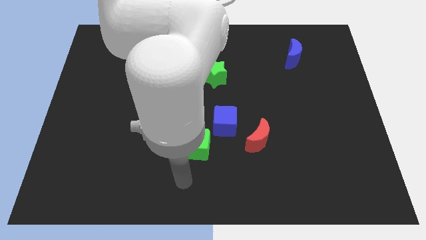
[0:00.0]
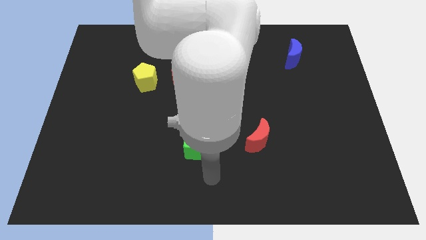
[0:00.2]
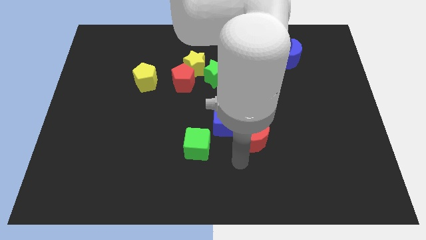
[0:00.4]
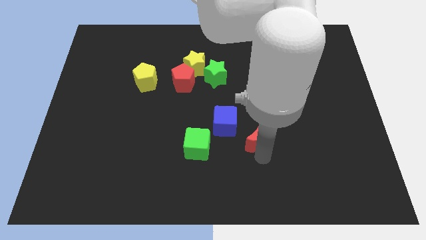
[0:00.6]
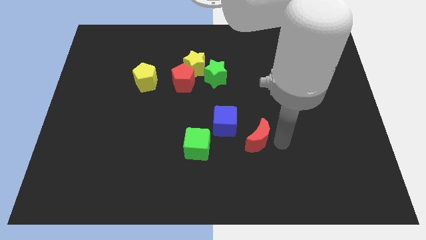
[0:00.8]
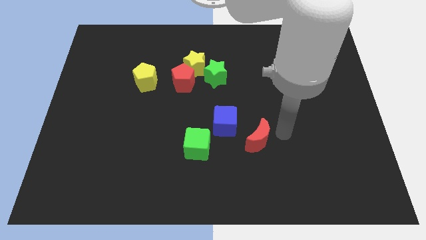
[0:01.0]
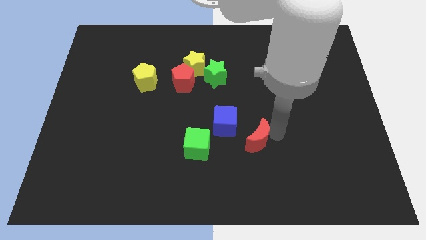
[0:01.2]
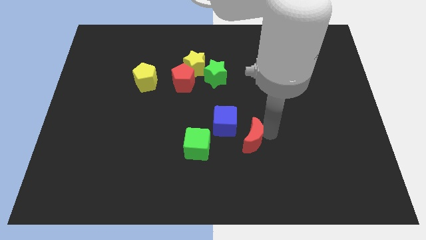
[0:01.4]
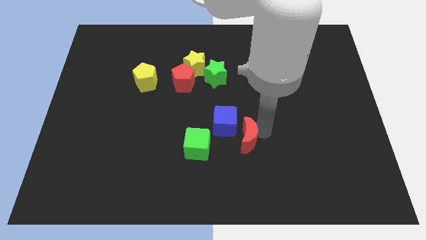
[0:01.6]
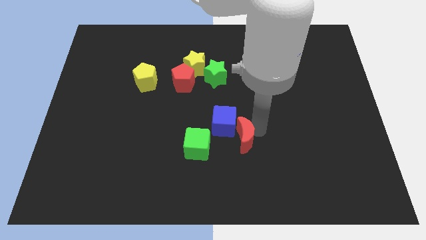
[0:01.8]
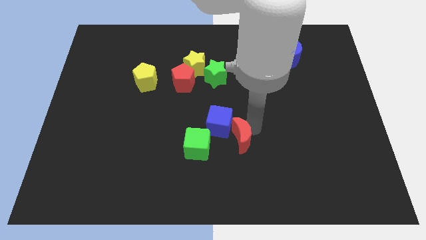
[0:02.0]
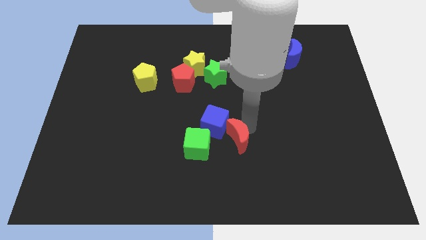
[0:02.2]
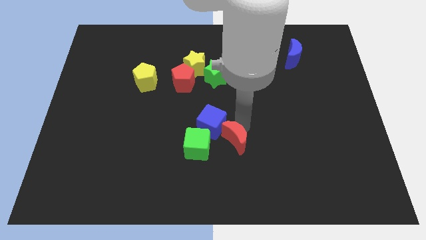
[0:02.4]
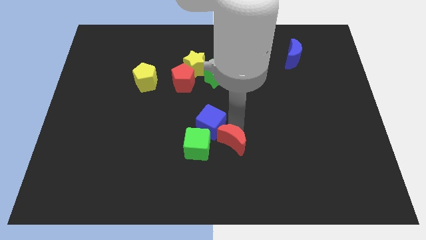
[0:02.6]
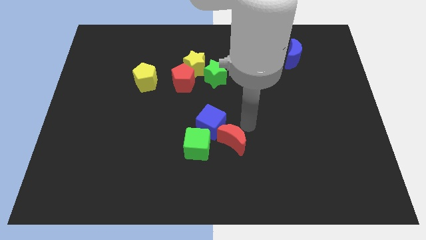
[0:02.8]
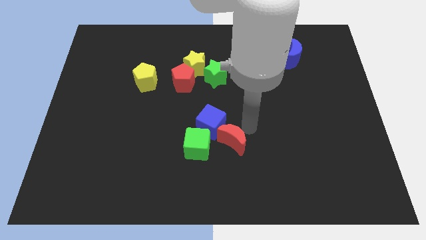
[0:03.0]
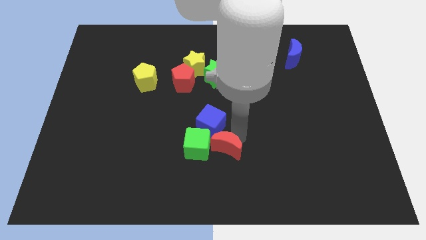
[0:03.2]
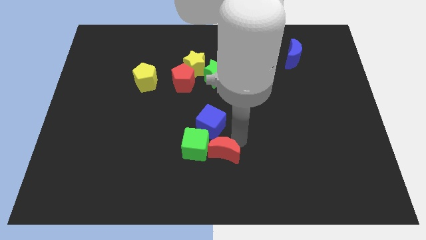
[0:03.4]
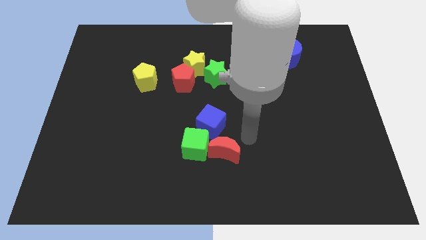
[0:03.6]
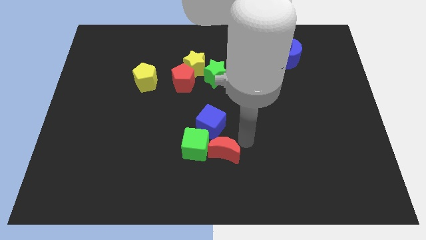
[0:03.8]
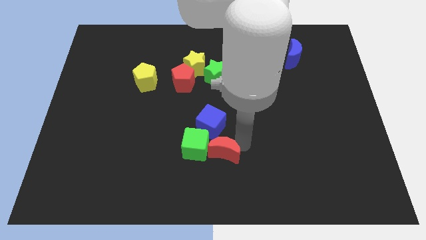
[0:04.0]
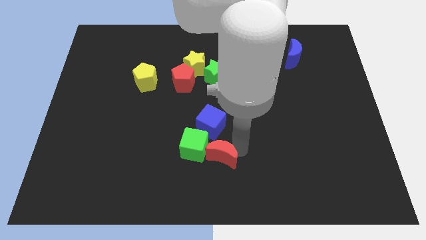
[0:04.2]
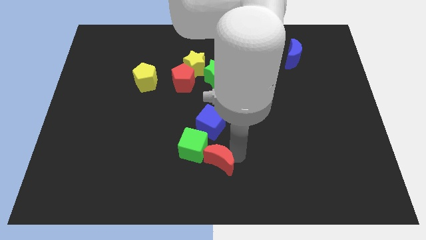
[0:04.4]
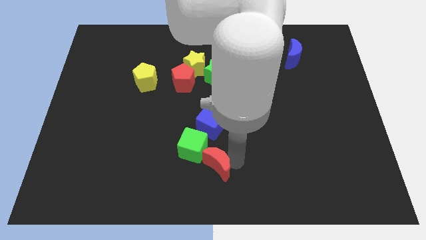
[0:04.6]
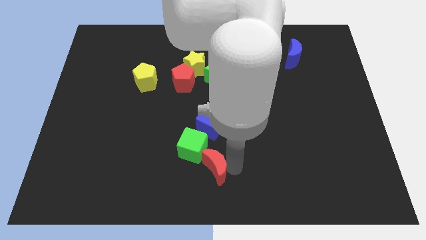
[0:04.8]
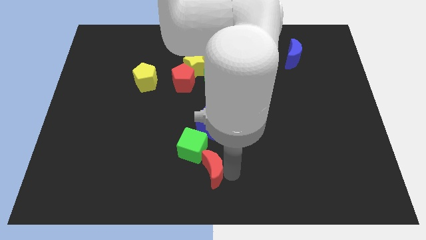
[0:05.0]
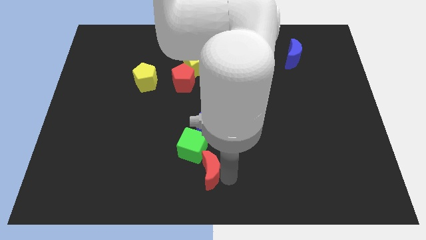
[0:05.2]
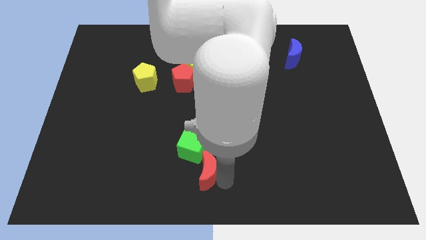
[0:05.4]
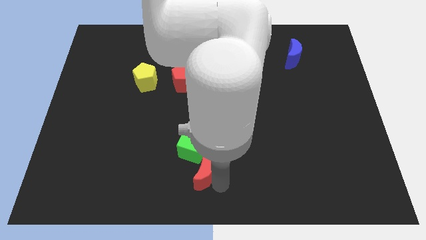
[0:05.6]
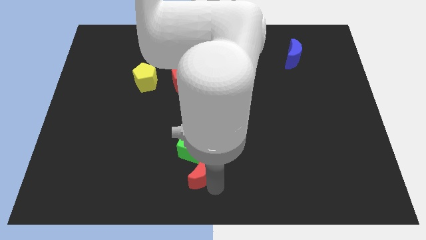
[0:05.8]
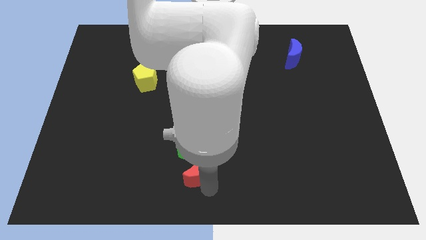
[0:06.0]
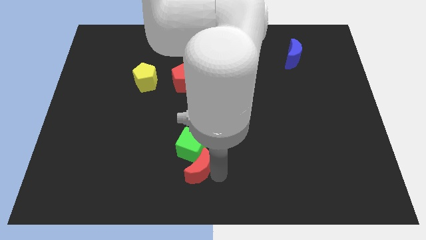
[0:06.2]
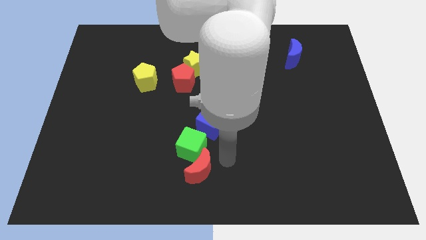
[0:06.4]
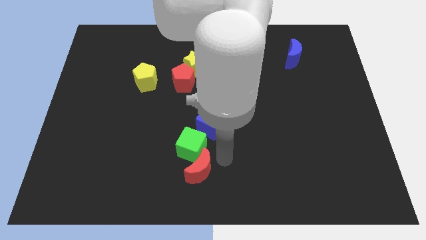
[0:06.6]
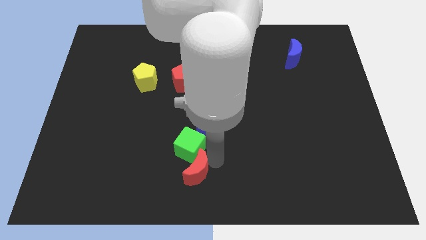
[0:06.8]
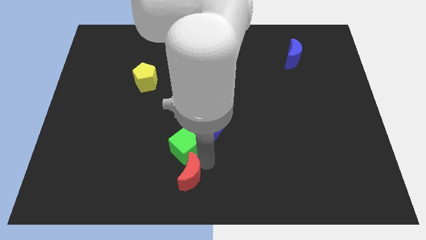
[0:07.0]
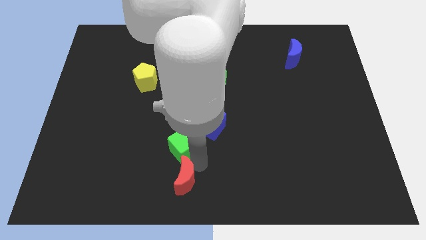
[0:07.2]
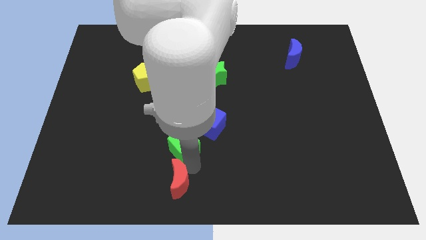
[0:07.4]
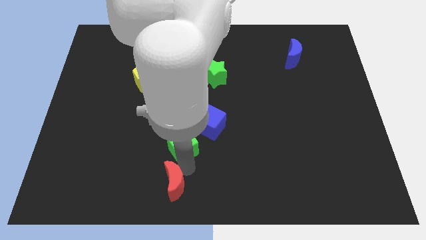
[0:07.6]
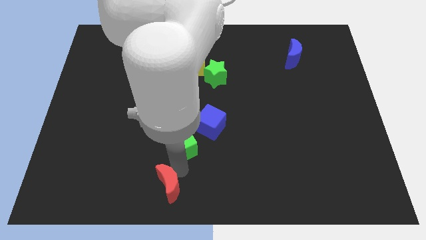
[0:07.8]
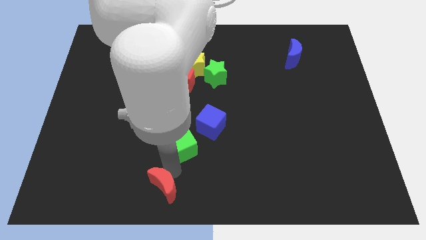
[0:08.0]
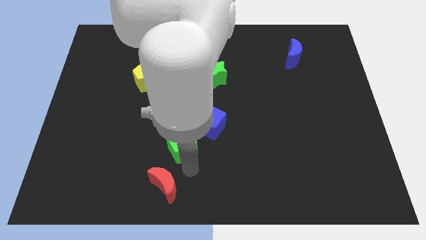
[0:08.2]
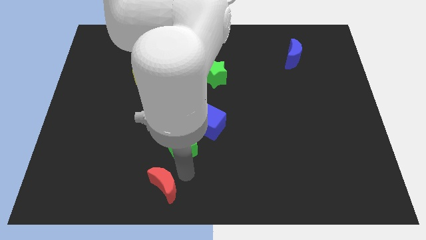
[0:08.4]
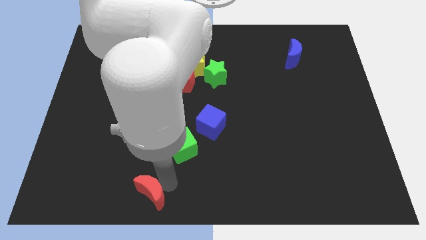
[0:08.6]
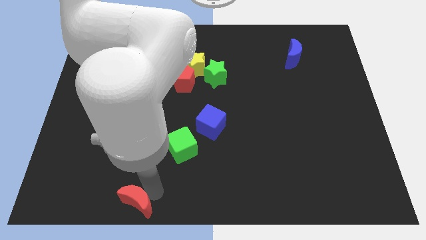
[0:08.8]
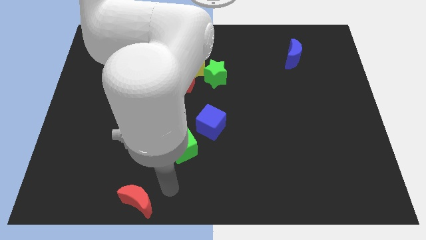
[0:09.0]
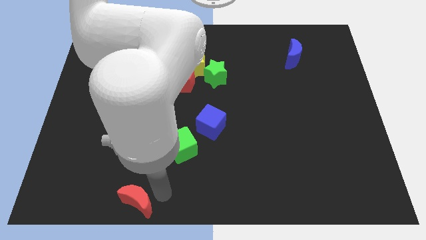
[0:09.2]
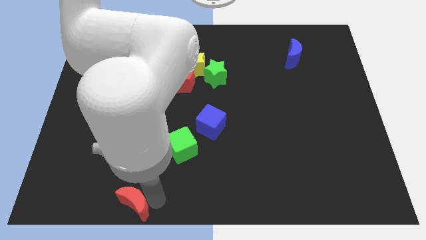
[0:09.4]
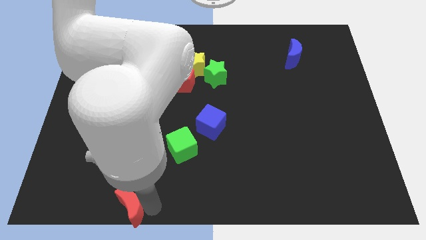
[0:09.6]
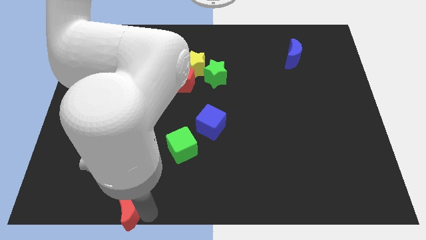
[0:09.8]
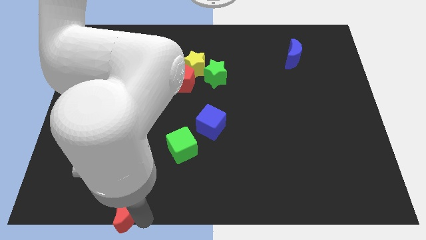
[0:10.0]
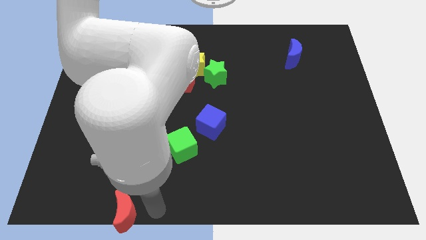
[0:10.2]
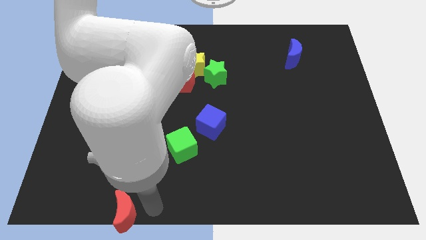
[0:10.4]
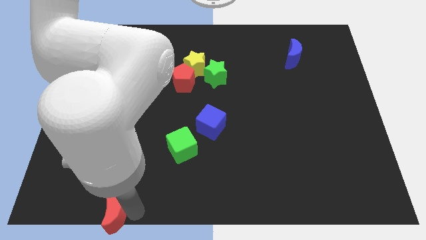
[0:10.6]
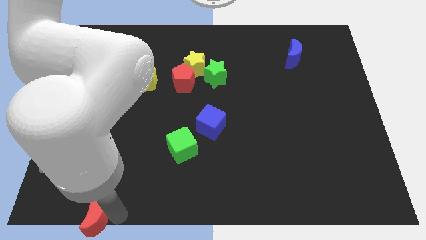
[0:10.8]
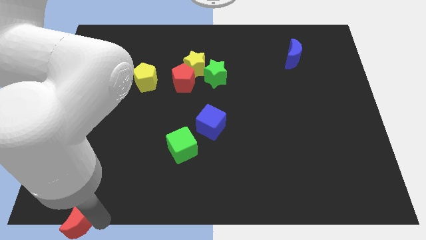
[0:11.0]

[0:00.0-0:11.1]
put the red moon to the bottom left corner

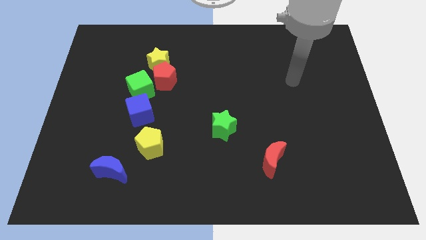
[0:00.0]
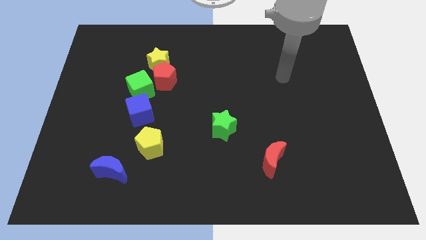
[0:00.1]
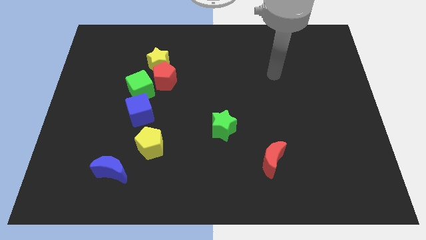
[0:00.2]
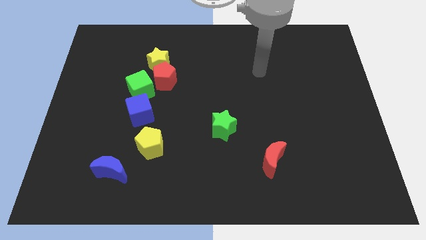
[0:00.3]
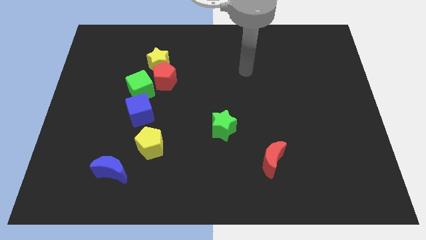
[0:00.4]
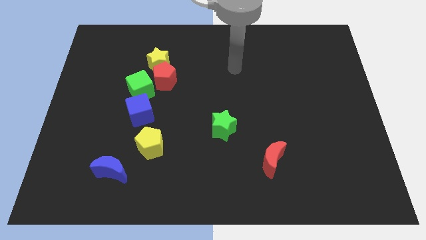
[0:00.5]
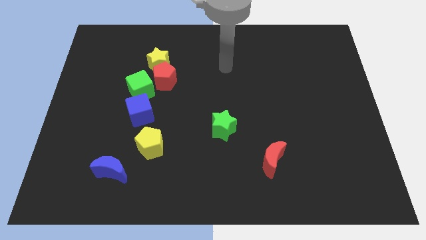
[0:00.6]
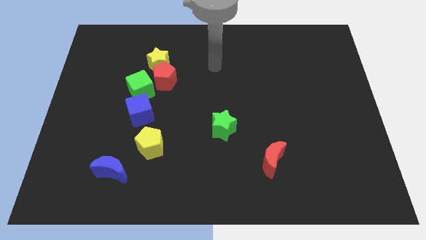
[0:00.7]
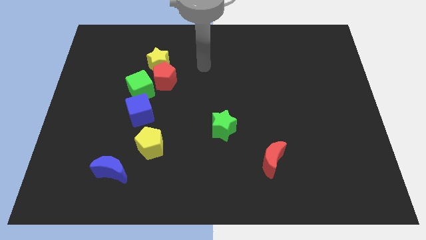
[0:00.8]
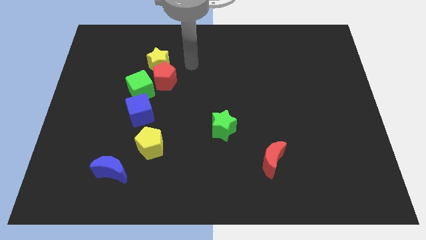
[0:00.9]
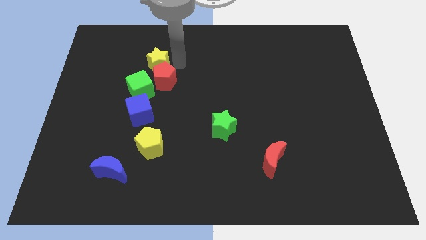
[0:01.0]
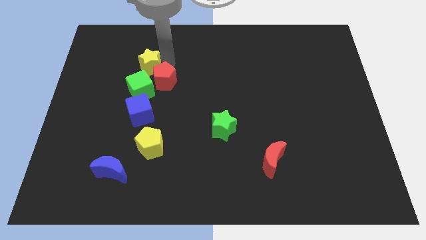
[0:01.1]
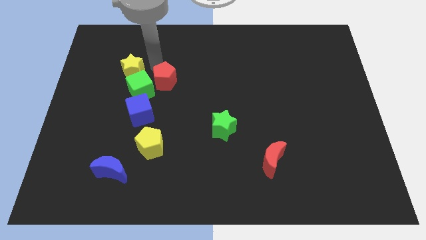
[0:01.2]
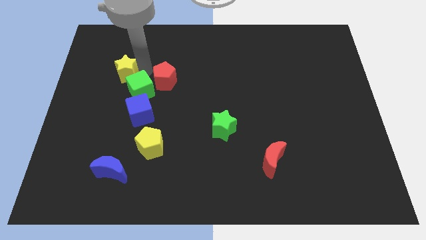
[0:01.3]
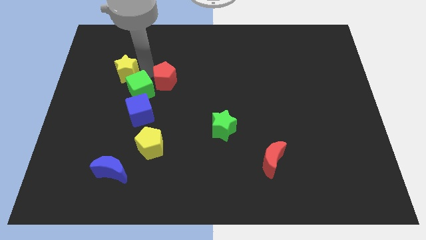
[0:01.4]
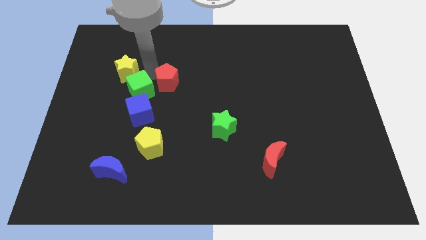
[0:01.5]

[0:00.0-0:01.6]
push the red pentagon to the center of the board
